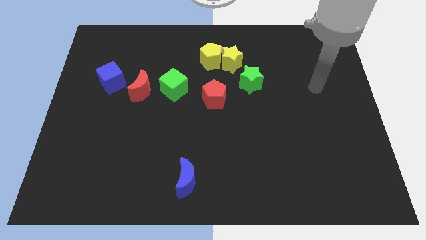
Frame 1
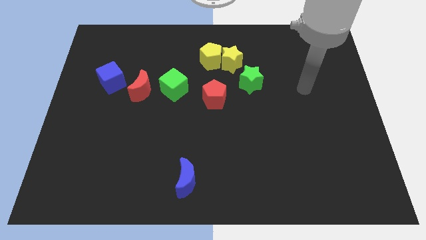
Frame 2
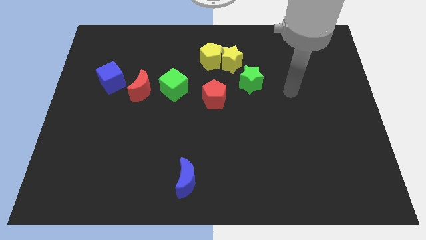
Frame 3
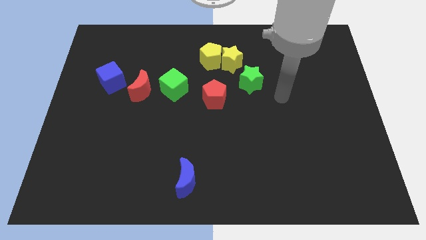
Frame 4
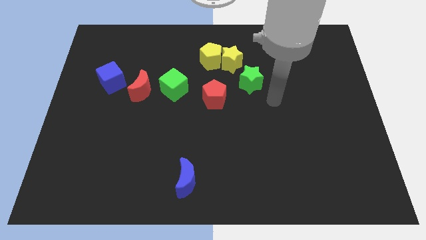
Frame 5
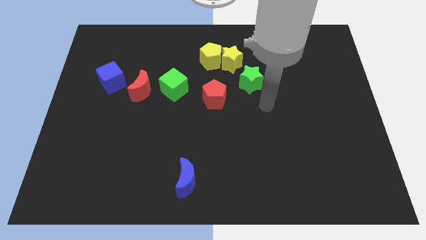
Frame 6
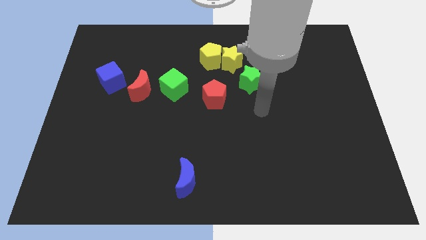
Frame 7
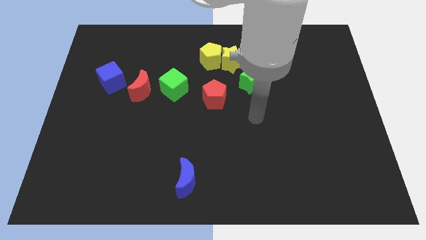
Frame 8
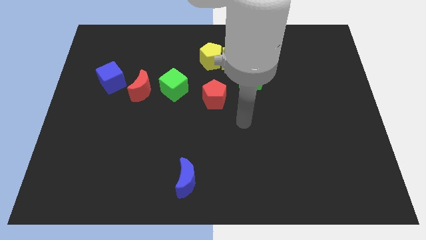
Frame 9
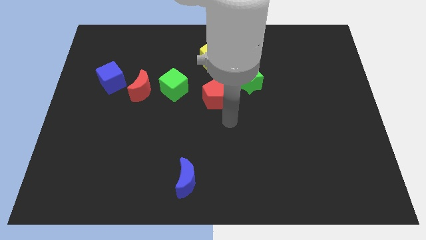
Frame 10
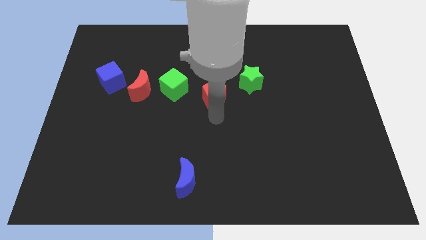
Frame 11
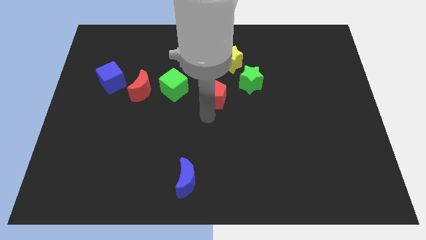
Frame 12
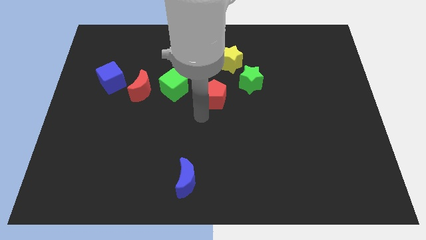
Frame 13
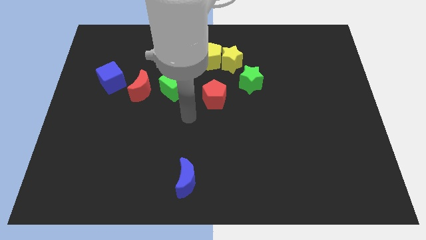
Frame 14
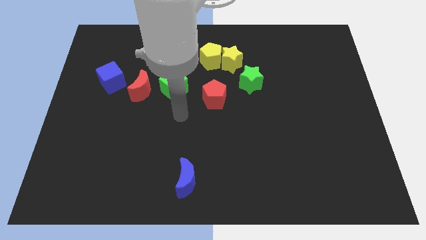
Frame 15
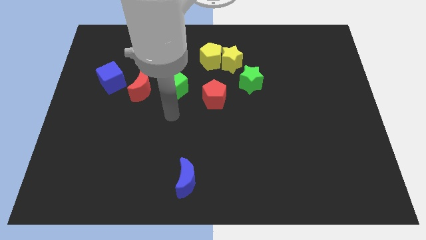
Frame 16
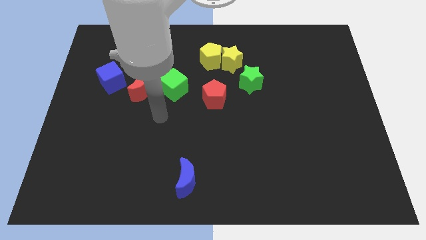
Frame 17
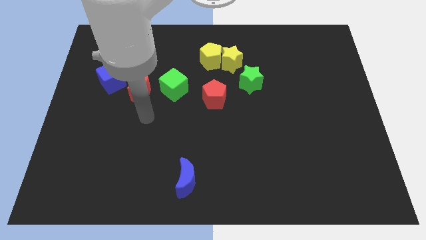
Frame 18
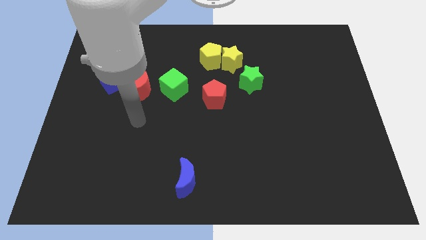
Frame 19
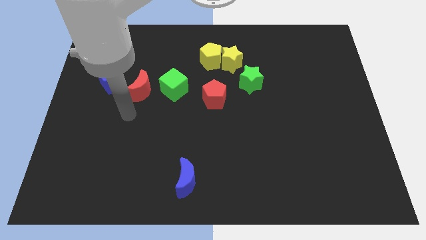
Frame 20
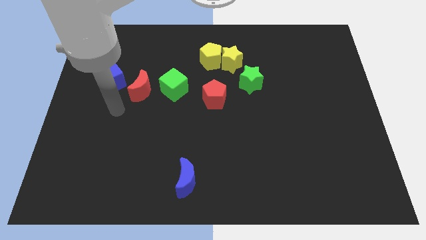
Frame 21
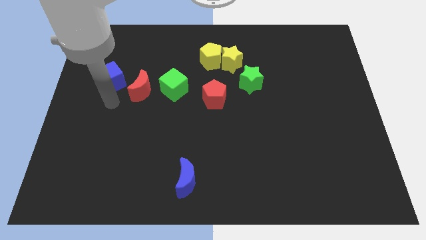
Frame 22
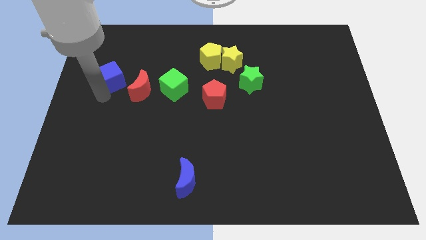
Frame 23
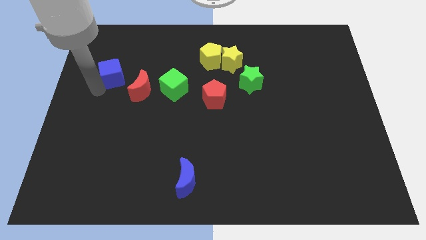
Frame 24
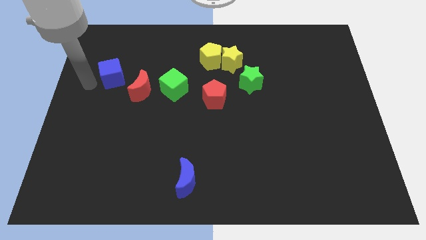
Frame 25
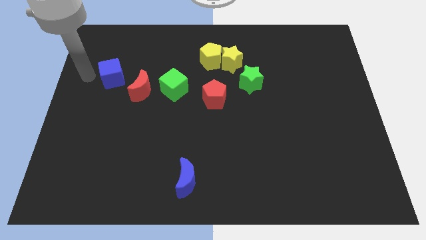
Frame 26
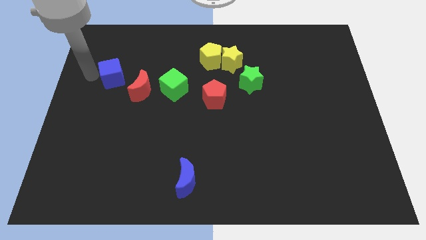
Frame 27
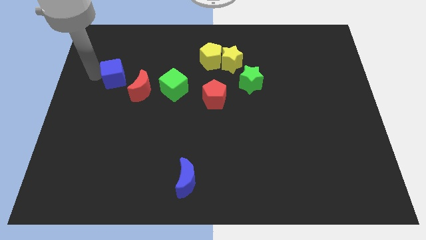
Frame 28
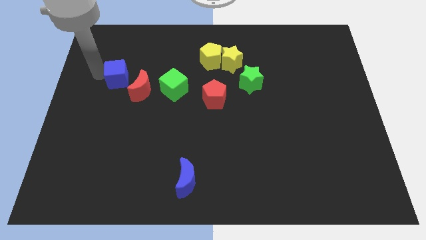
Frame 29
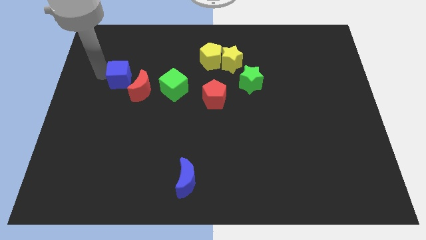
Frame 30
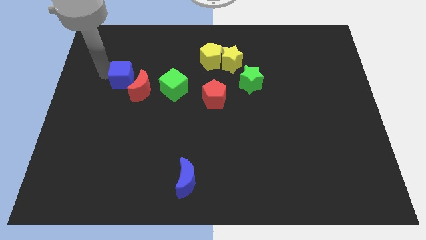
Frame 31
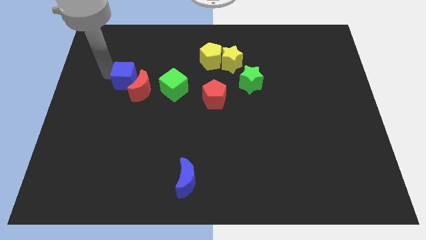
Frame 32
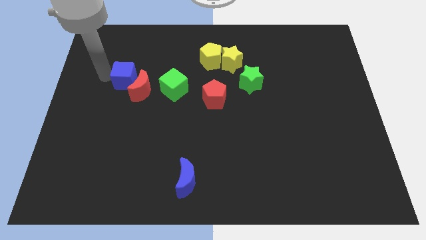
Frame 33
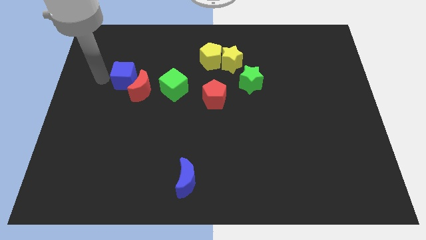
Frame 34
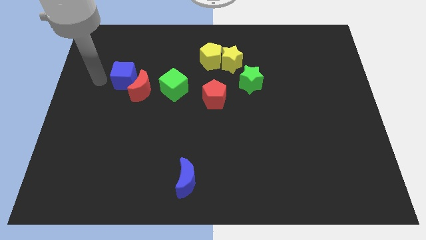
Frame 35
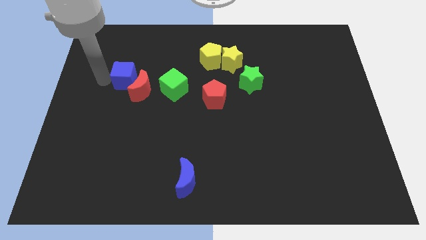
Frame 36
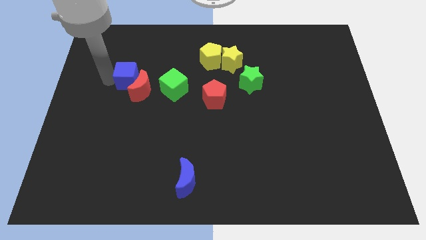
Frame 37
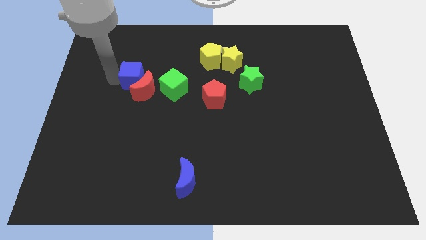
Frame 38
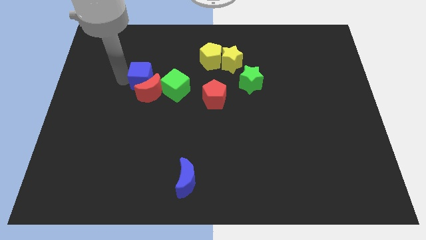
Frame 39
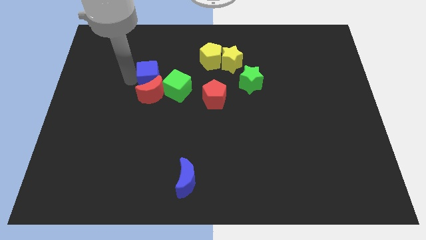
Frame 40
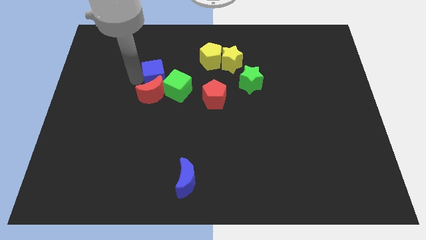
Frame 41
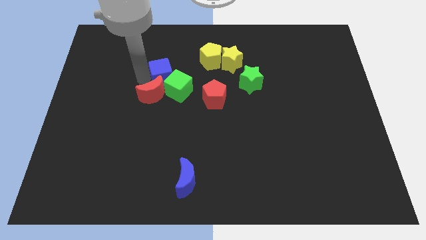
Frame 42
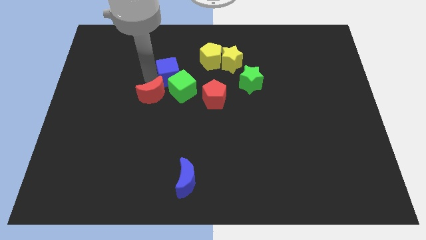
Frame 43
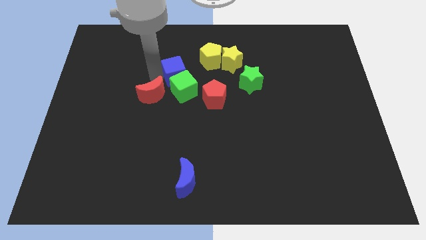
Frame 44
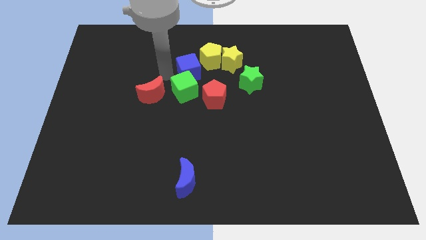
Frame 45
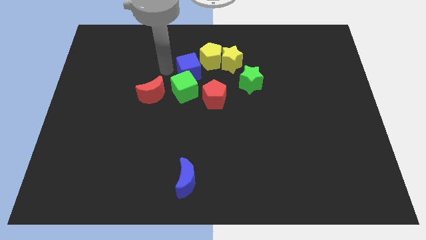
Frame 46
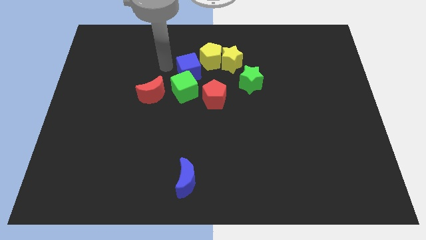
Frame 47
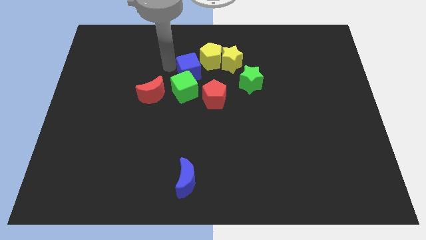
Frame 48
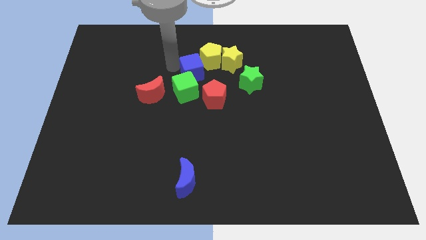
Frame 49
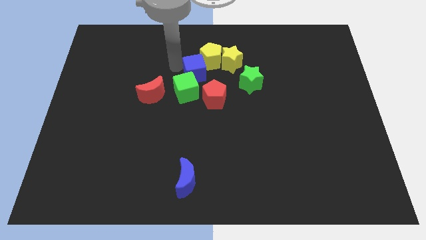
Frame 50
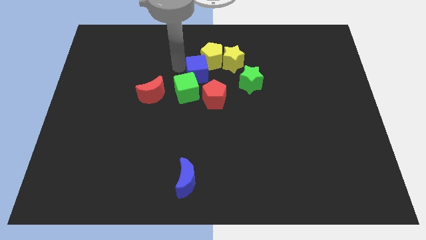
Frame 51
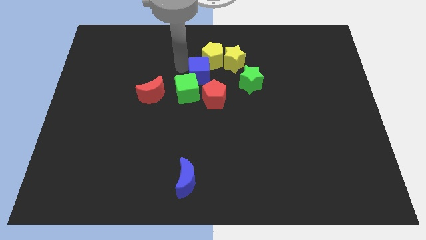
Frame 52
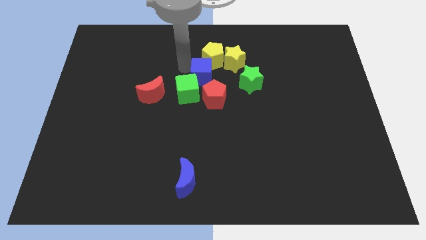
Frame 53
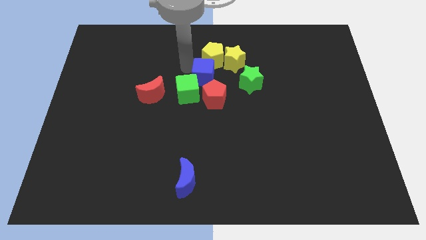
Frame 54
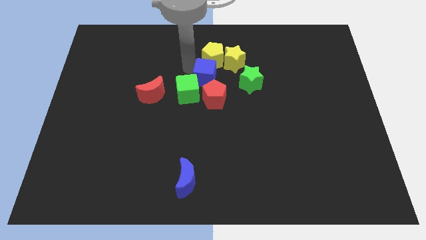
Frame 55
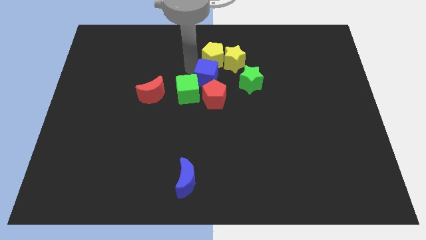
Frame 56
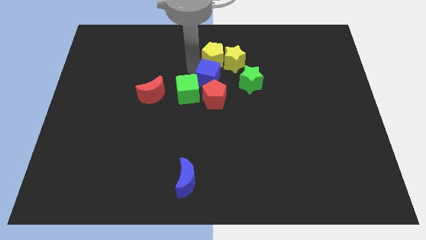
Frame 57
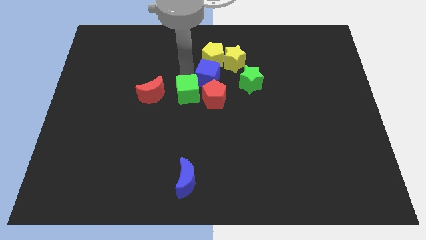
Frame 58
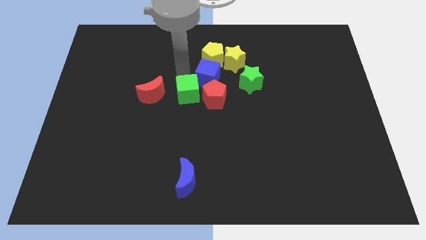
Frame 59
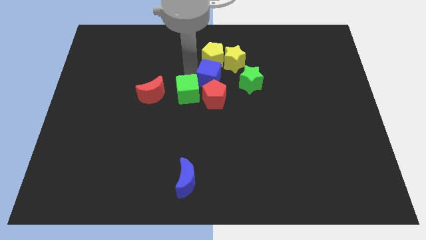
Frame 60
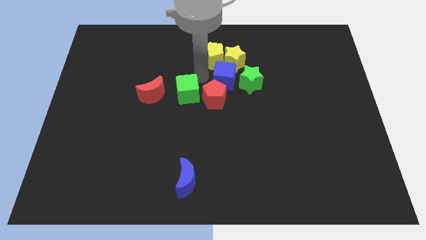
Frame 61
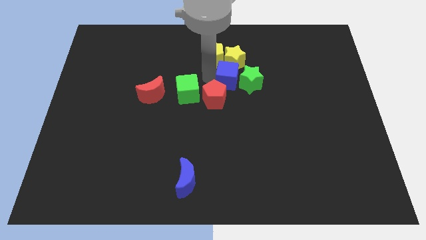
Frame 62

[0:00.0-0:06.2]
move the blue cube towards the green star

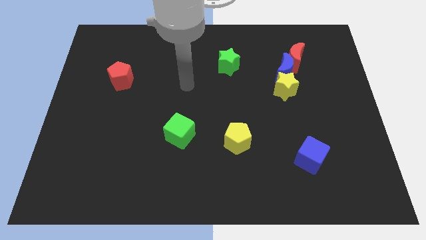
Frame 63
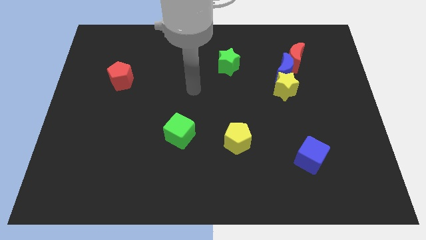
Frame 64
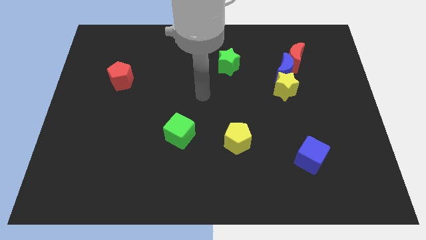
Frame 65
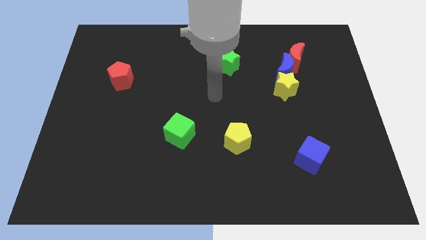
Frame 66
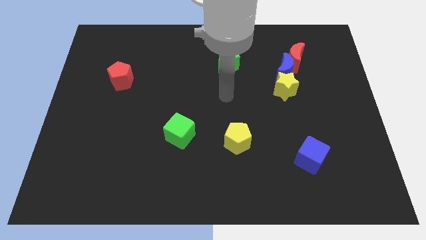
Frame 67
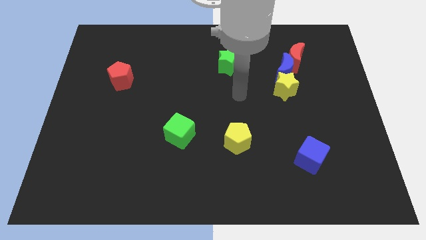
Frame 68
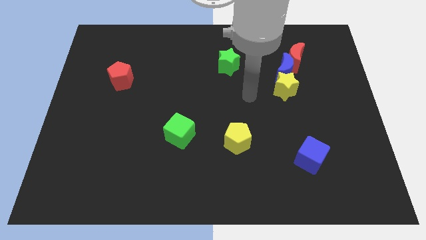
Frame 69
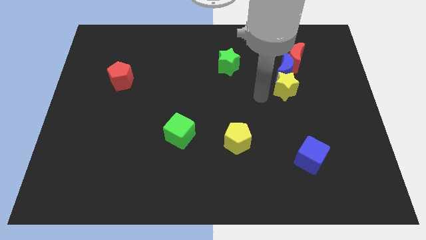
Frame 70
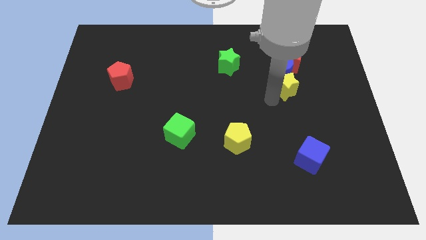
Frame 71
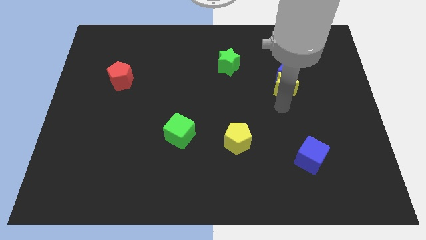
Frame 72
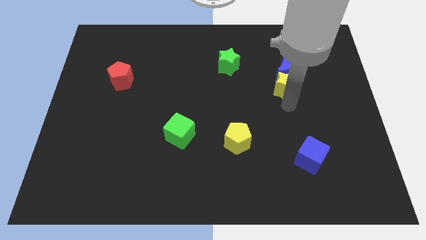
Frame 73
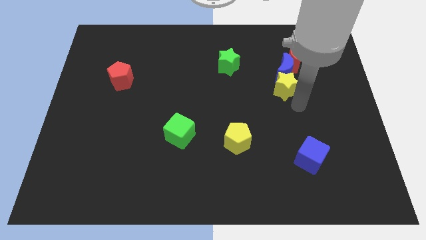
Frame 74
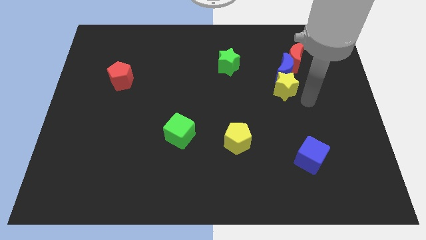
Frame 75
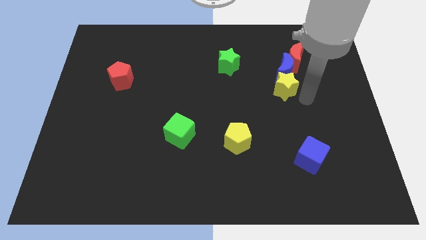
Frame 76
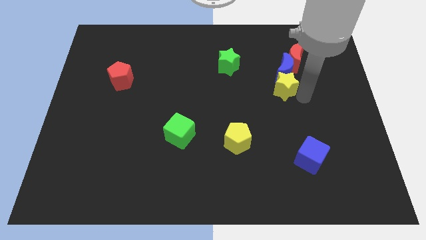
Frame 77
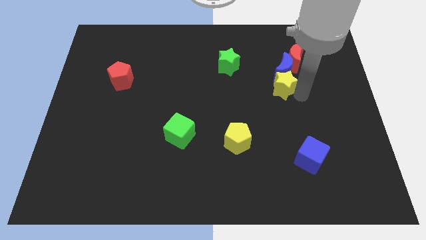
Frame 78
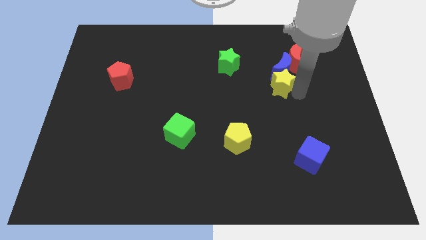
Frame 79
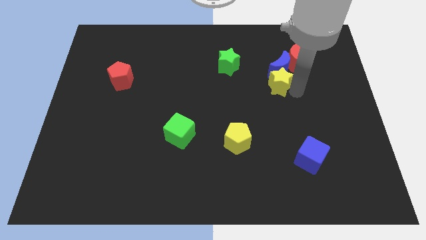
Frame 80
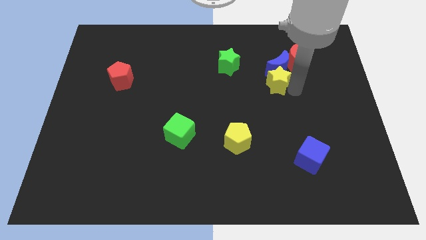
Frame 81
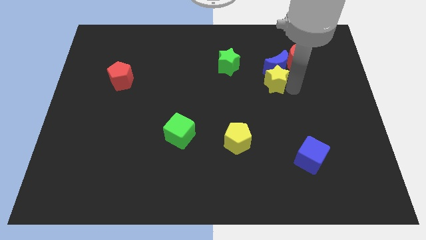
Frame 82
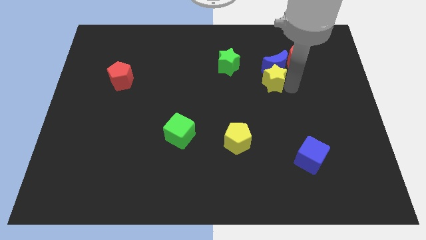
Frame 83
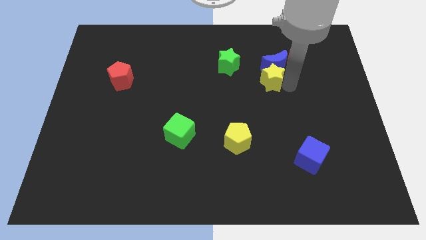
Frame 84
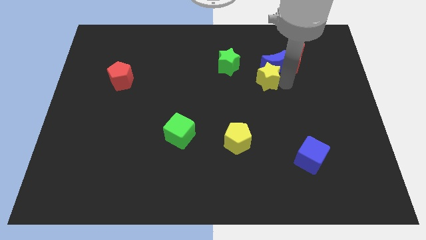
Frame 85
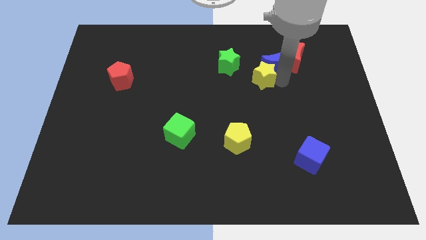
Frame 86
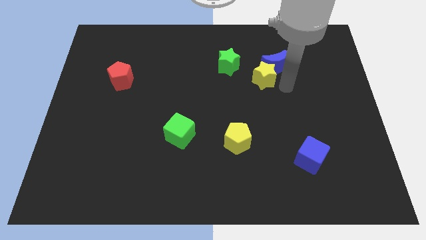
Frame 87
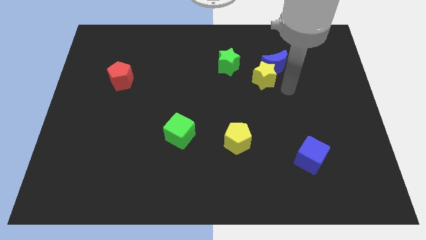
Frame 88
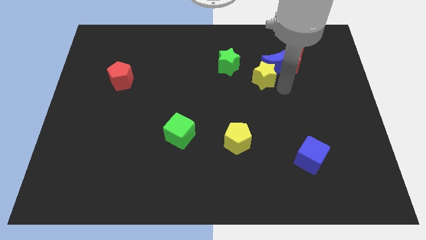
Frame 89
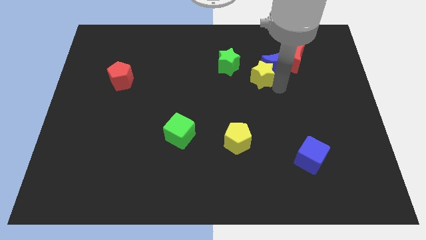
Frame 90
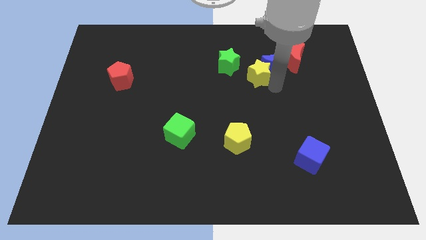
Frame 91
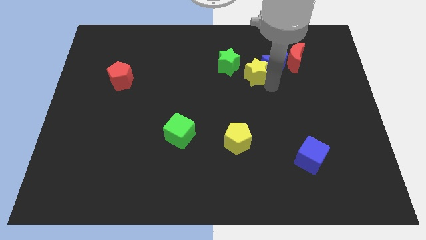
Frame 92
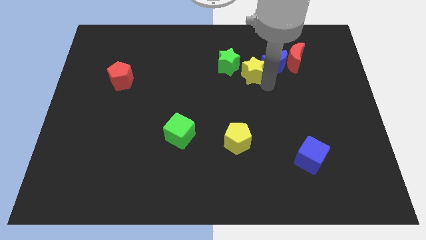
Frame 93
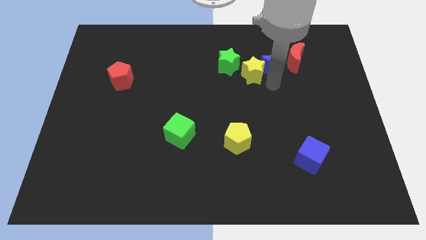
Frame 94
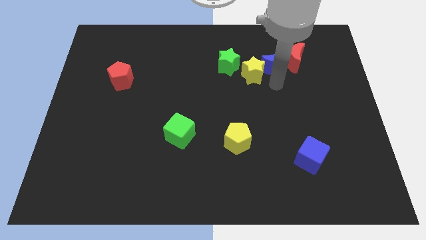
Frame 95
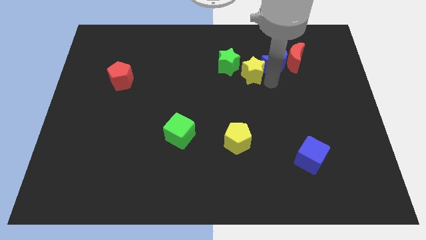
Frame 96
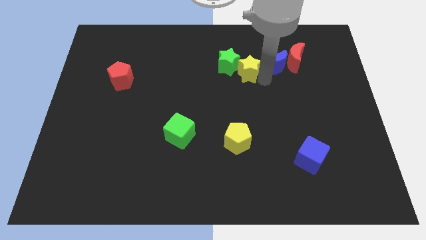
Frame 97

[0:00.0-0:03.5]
put the yellow star close to the green star
